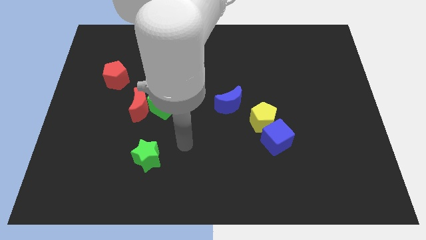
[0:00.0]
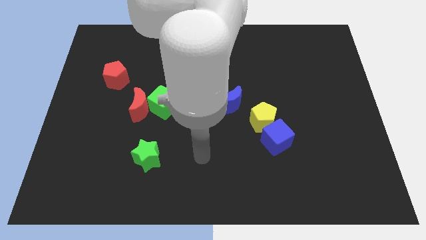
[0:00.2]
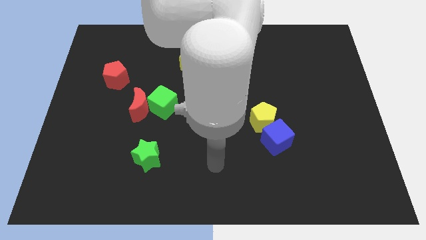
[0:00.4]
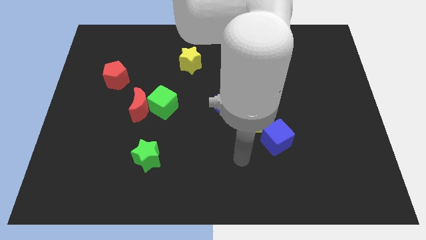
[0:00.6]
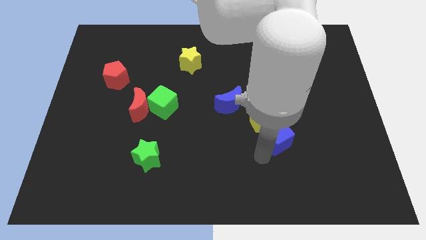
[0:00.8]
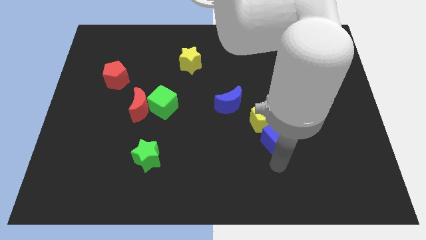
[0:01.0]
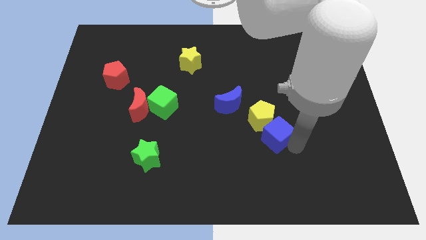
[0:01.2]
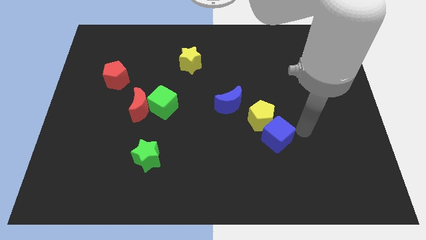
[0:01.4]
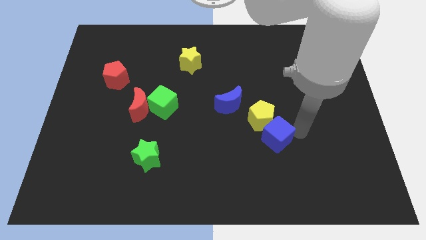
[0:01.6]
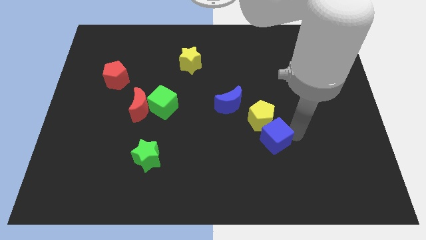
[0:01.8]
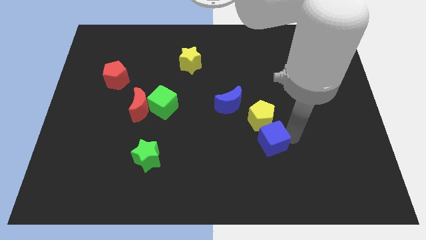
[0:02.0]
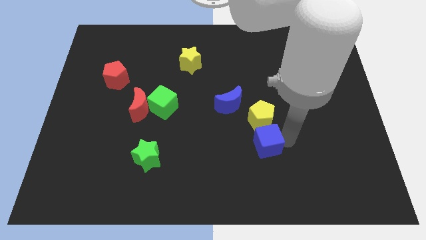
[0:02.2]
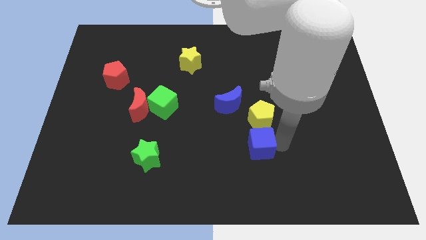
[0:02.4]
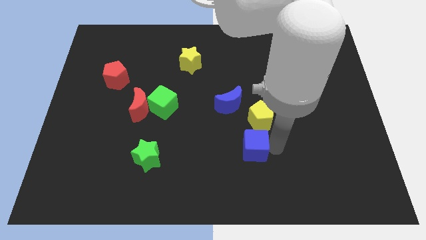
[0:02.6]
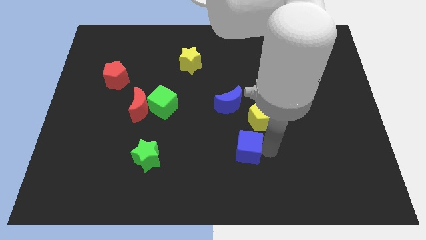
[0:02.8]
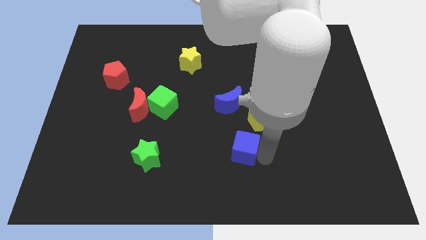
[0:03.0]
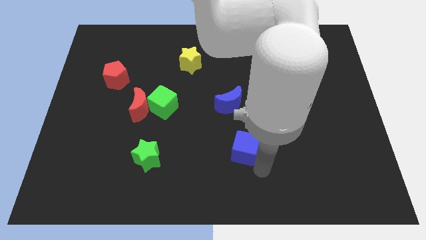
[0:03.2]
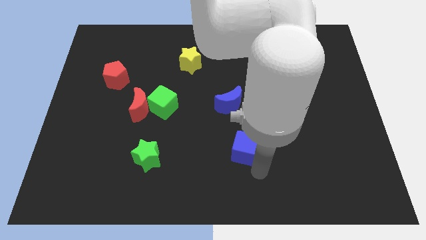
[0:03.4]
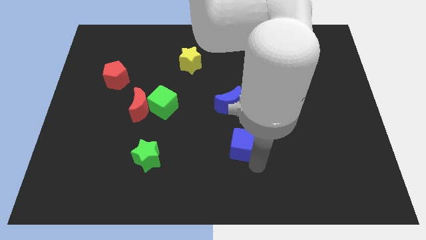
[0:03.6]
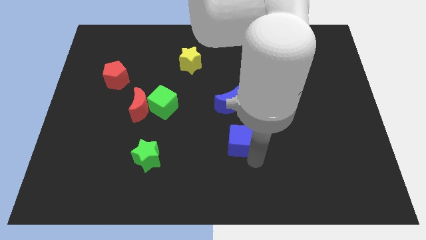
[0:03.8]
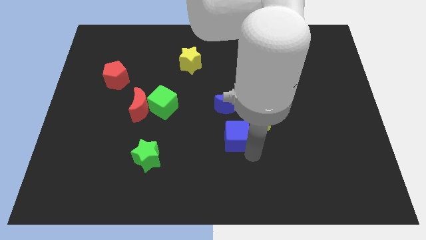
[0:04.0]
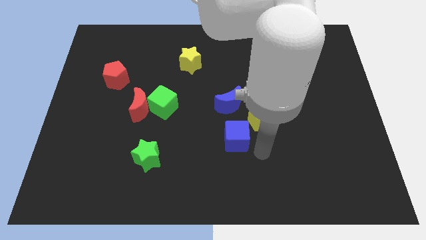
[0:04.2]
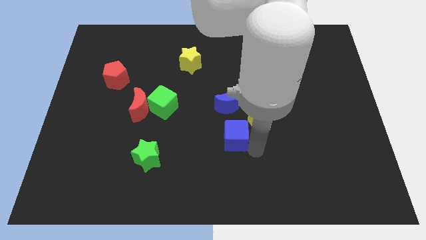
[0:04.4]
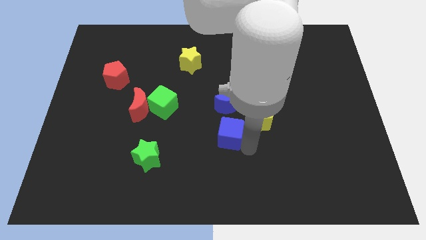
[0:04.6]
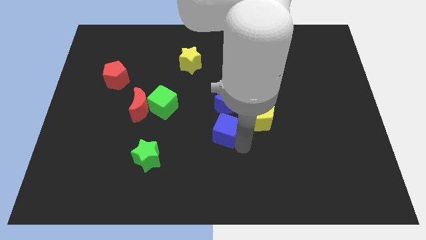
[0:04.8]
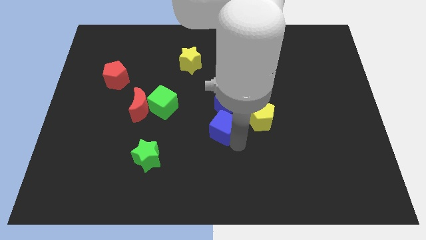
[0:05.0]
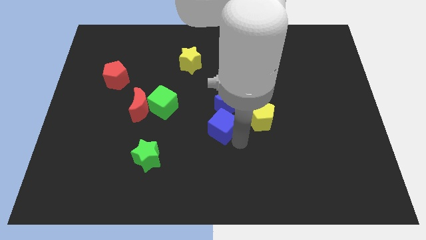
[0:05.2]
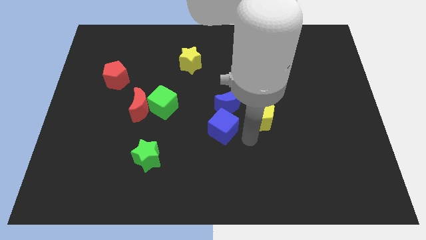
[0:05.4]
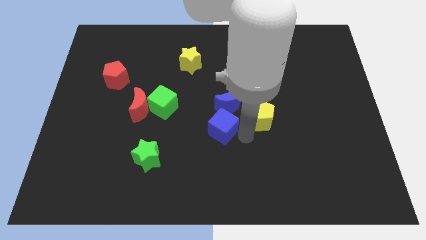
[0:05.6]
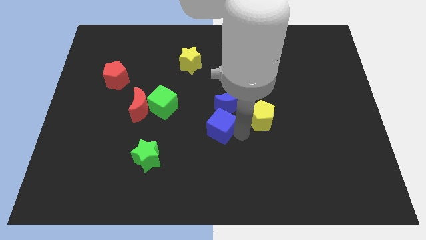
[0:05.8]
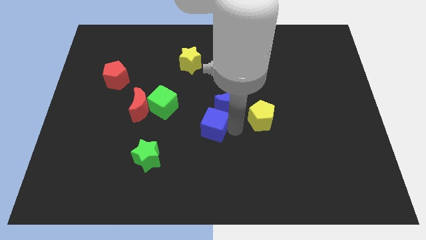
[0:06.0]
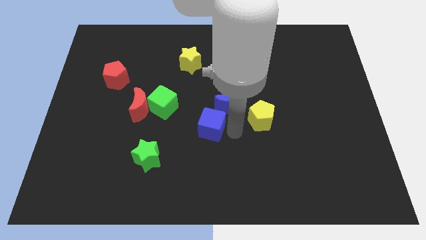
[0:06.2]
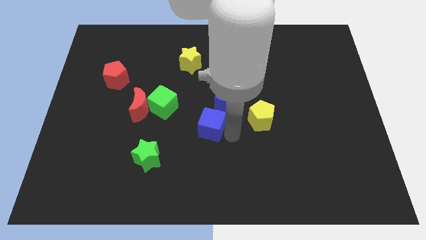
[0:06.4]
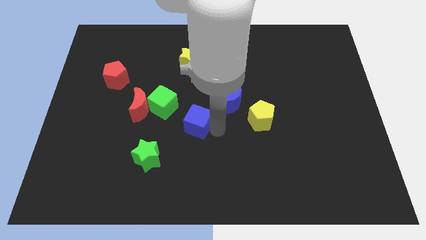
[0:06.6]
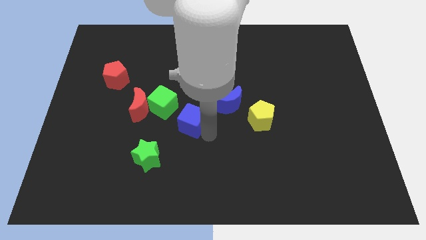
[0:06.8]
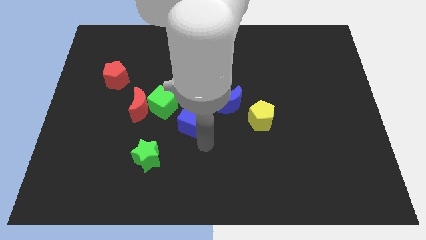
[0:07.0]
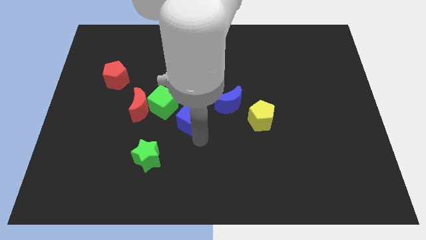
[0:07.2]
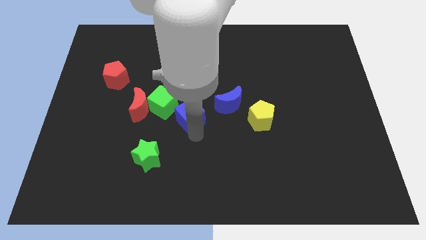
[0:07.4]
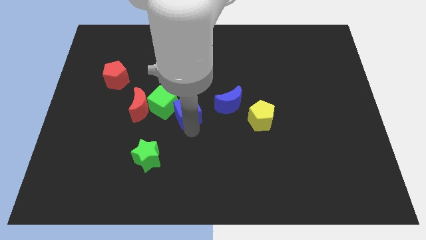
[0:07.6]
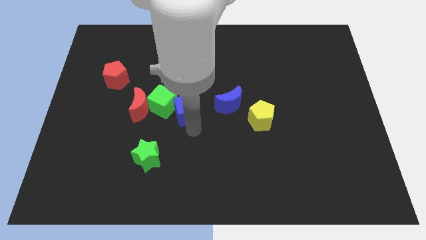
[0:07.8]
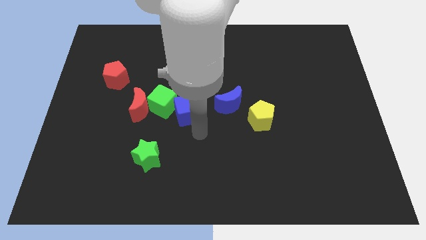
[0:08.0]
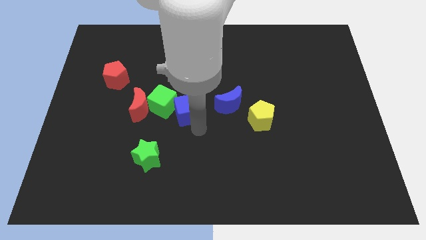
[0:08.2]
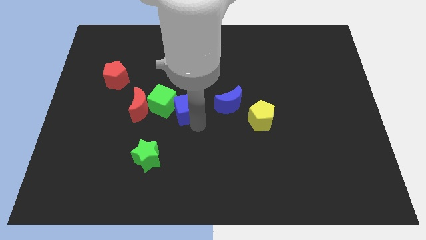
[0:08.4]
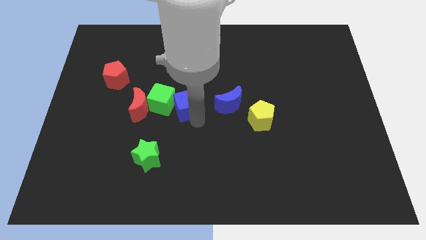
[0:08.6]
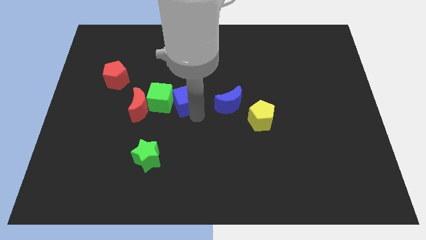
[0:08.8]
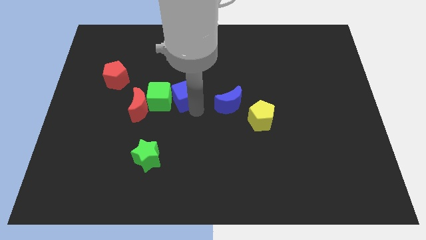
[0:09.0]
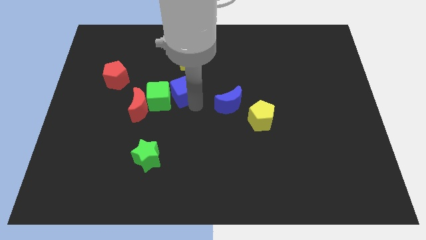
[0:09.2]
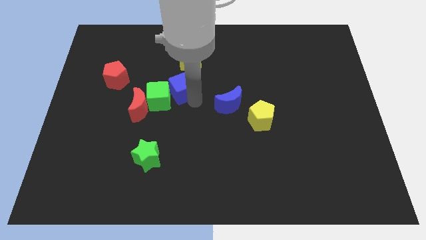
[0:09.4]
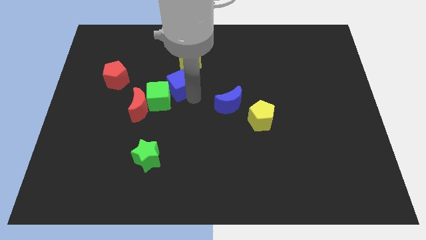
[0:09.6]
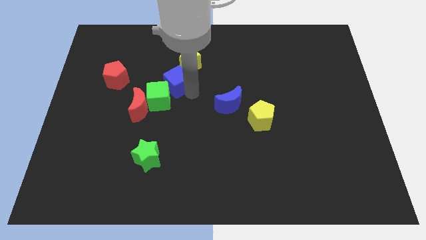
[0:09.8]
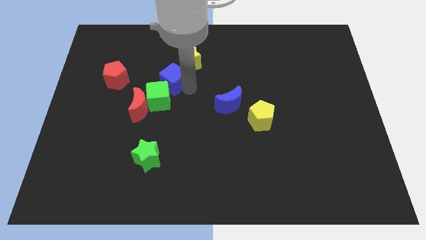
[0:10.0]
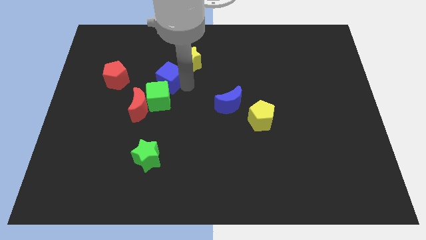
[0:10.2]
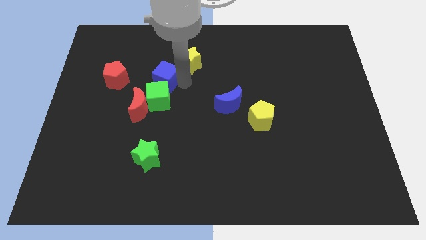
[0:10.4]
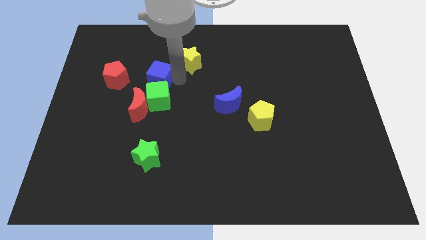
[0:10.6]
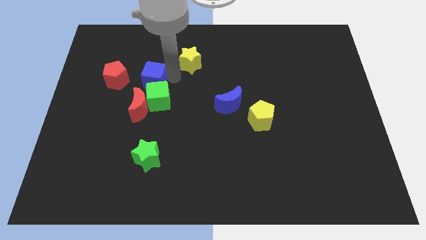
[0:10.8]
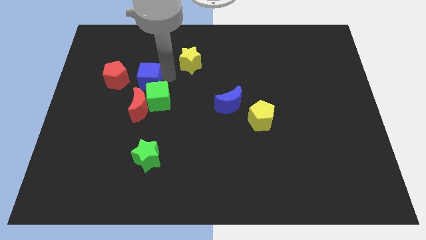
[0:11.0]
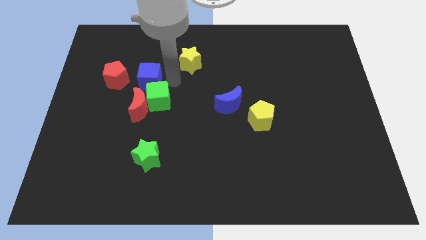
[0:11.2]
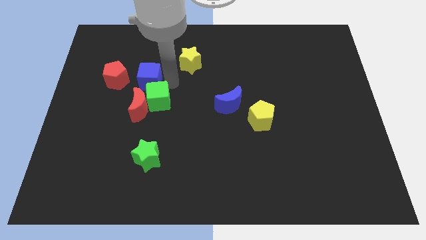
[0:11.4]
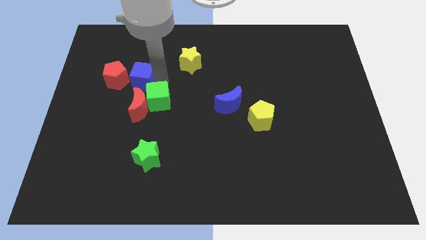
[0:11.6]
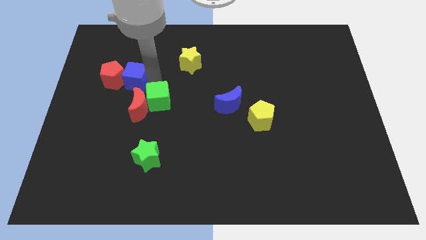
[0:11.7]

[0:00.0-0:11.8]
put the blue cube close to the red pentagon

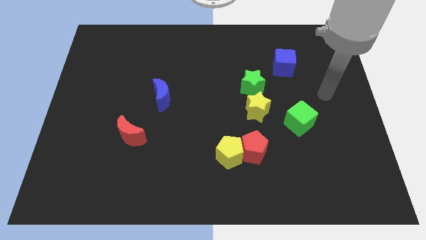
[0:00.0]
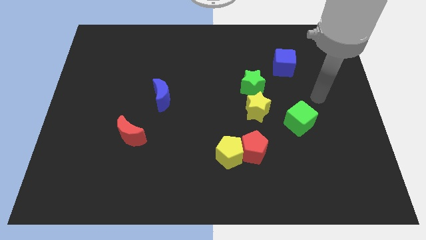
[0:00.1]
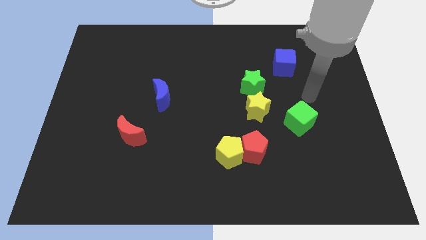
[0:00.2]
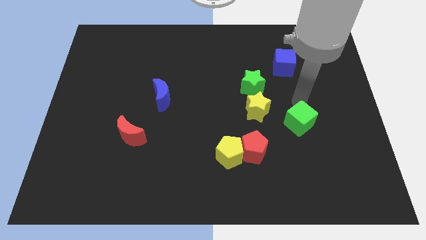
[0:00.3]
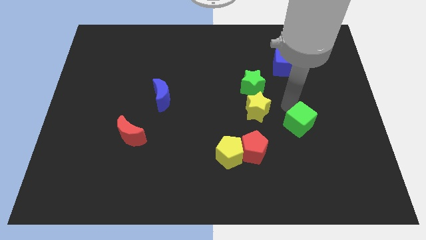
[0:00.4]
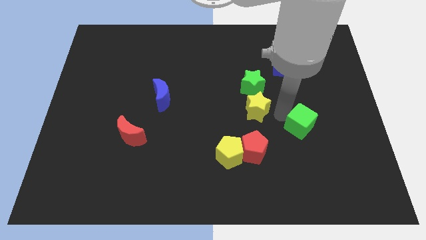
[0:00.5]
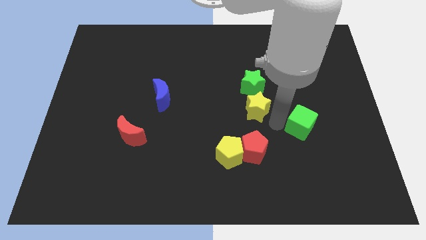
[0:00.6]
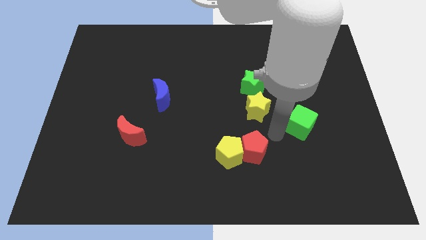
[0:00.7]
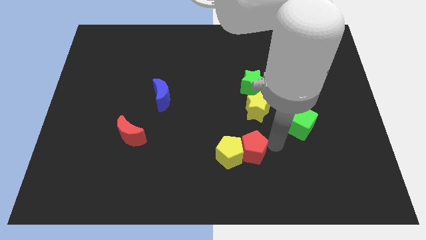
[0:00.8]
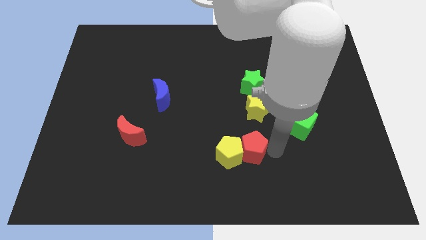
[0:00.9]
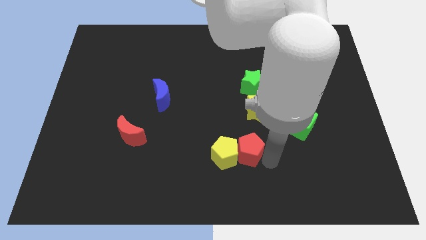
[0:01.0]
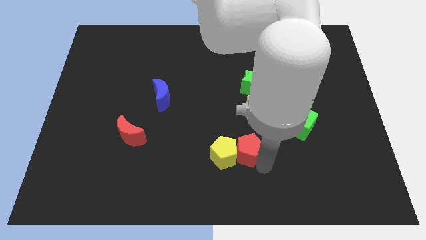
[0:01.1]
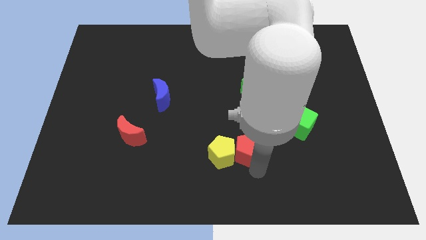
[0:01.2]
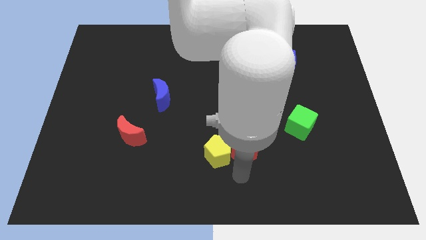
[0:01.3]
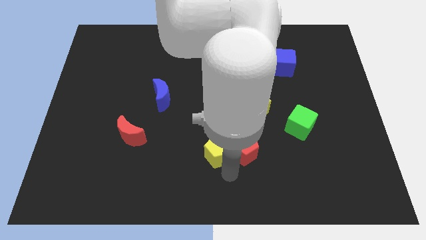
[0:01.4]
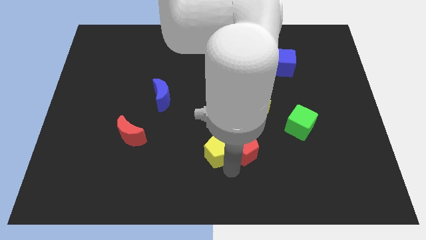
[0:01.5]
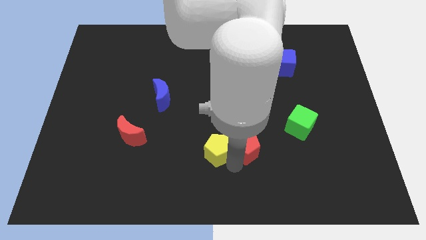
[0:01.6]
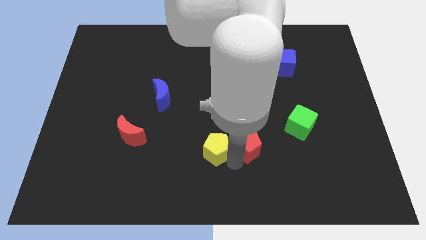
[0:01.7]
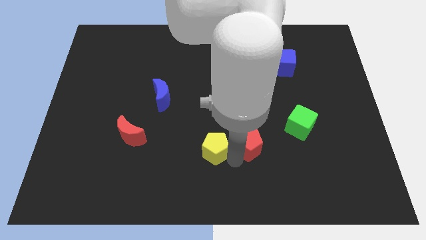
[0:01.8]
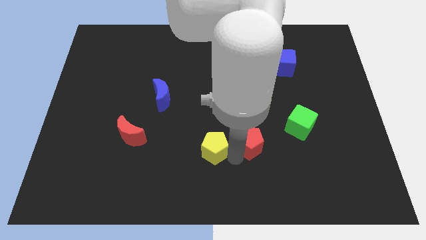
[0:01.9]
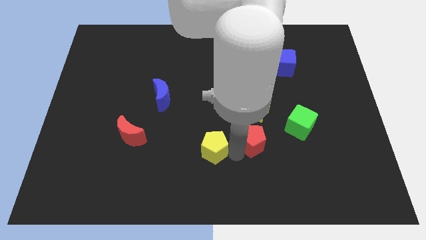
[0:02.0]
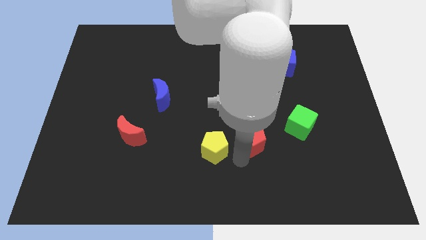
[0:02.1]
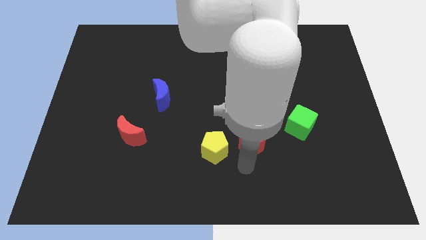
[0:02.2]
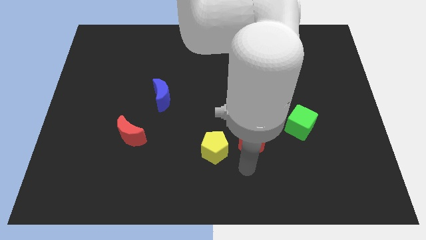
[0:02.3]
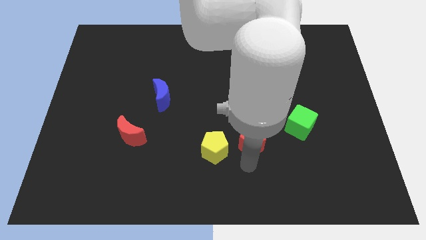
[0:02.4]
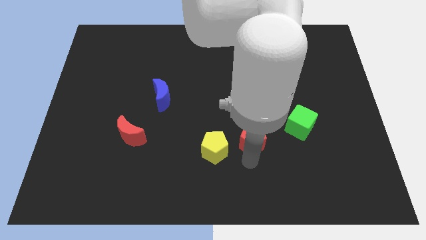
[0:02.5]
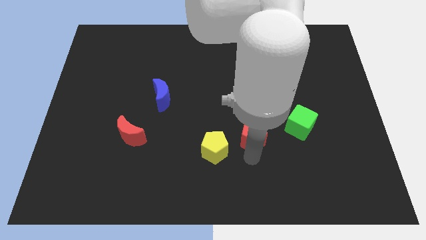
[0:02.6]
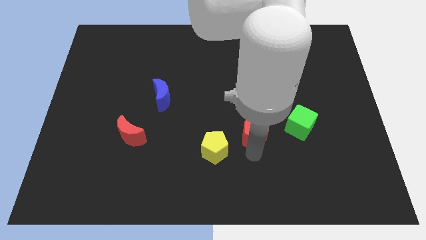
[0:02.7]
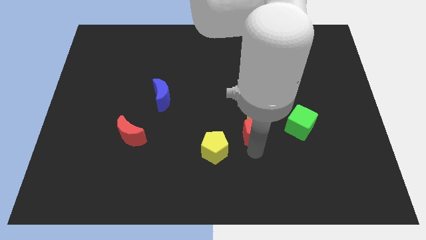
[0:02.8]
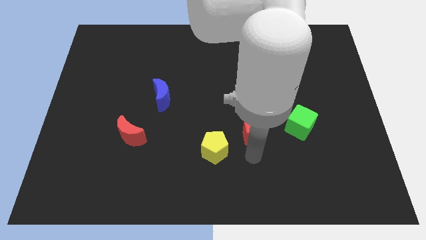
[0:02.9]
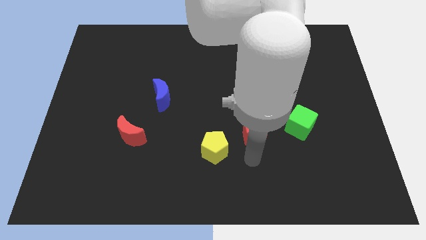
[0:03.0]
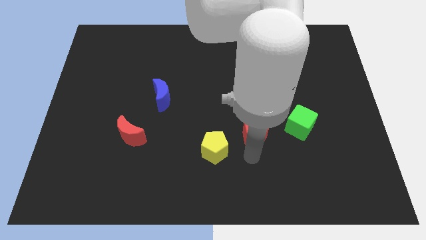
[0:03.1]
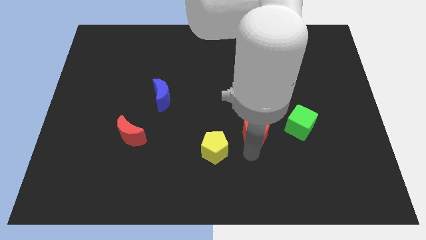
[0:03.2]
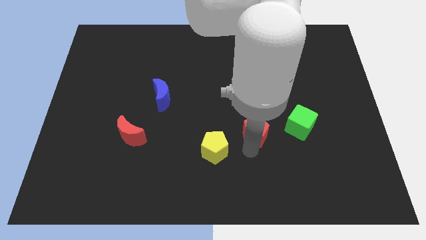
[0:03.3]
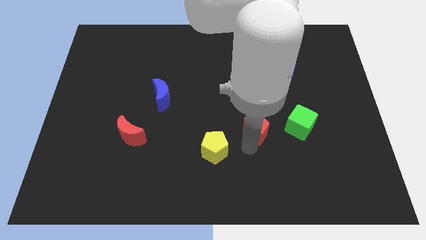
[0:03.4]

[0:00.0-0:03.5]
put the red pentagon next to the yellow star
